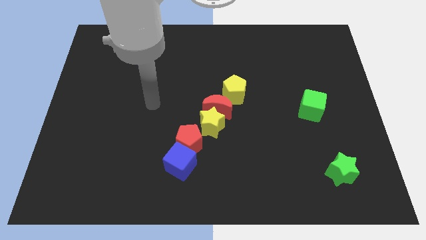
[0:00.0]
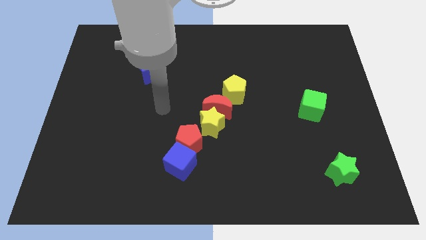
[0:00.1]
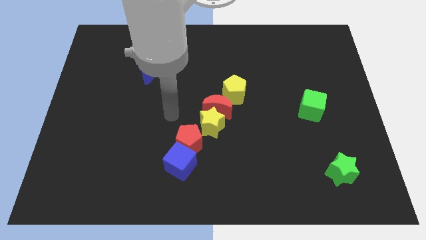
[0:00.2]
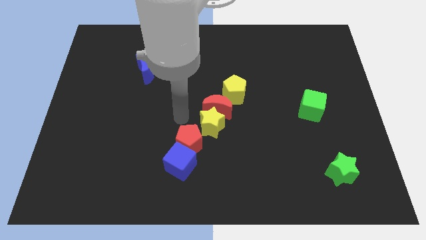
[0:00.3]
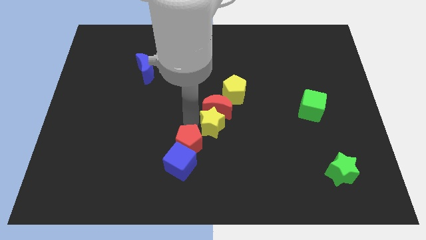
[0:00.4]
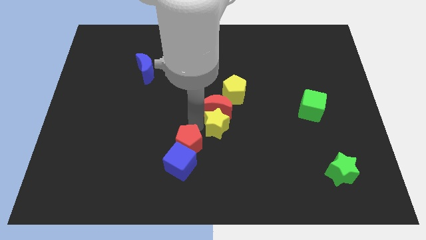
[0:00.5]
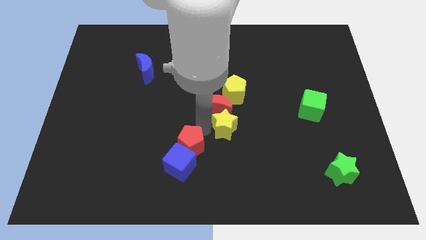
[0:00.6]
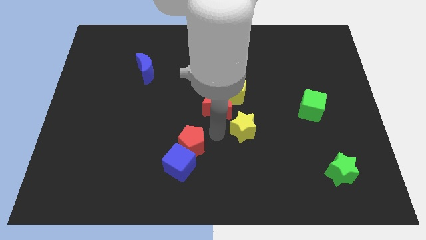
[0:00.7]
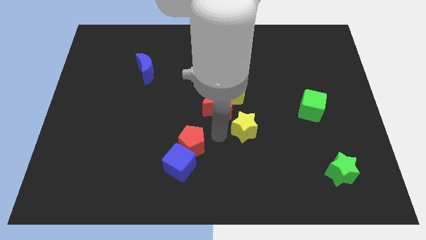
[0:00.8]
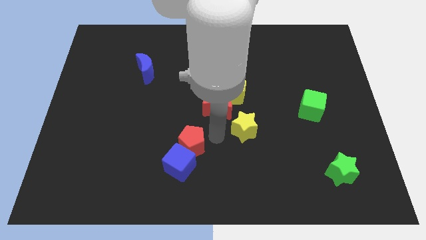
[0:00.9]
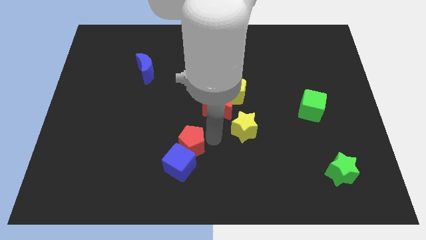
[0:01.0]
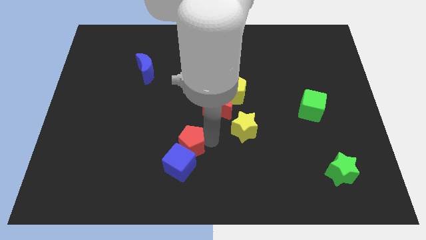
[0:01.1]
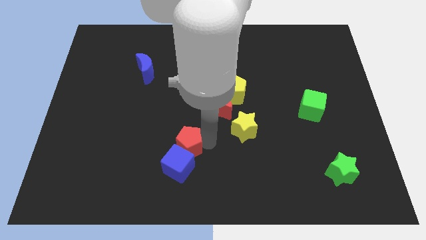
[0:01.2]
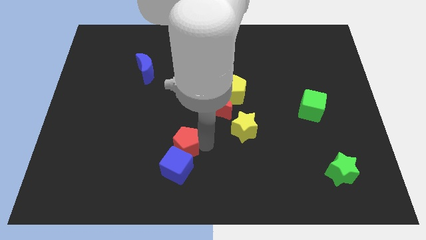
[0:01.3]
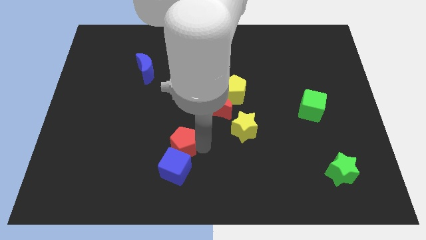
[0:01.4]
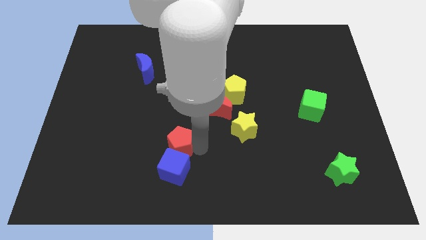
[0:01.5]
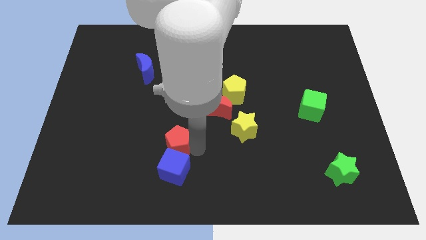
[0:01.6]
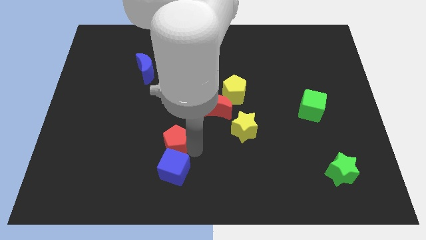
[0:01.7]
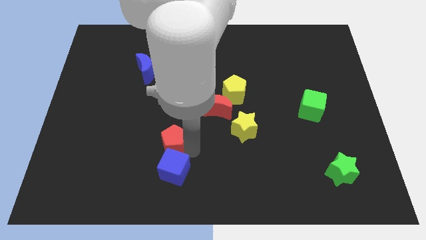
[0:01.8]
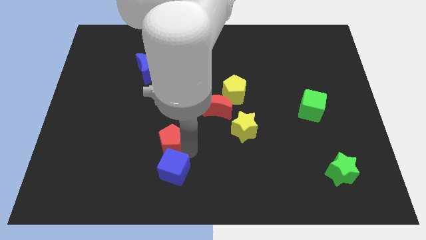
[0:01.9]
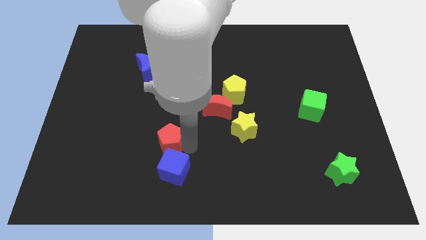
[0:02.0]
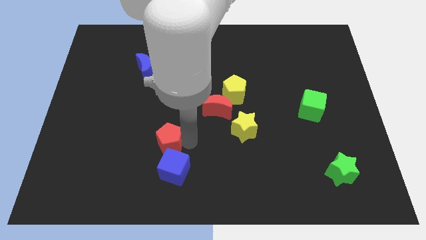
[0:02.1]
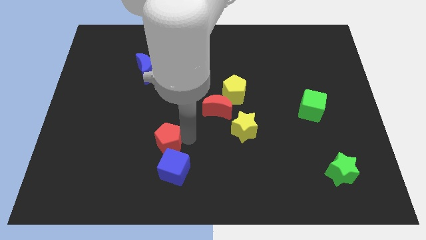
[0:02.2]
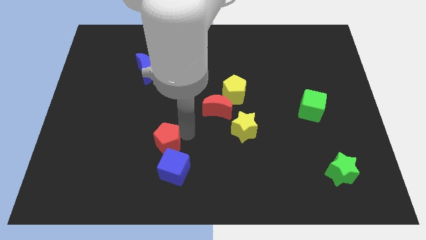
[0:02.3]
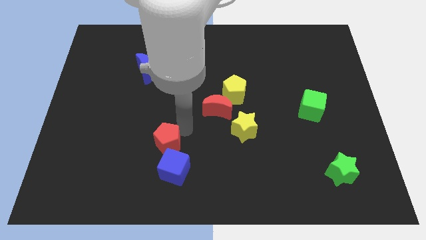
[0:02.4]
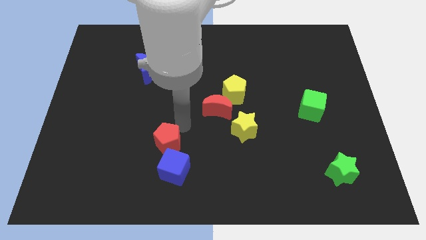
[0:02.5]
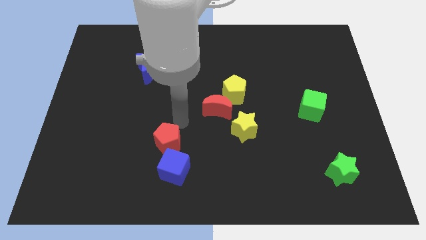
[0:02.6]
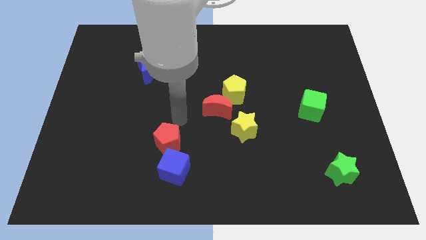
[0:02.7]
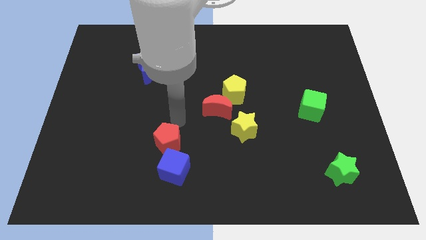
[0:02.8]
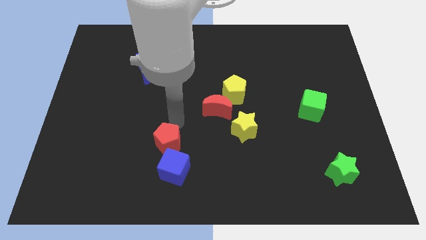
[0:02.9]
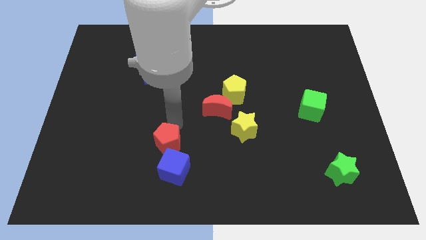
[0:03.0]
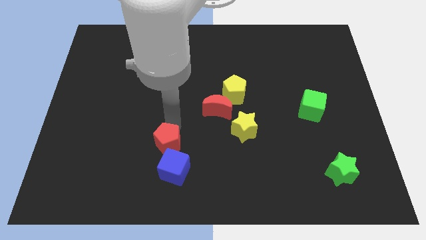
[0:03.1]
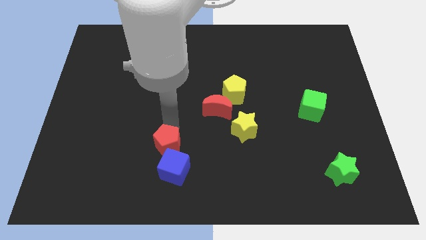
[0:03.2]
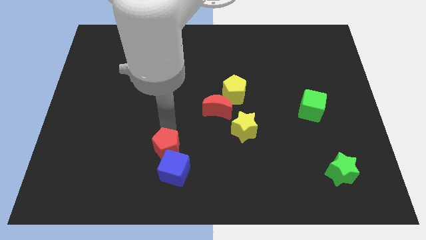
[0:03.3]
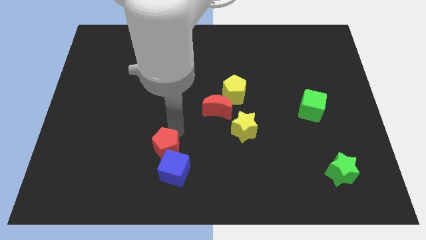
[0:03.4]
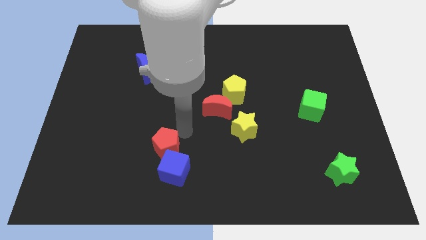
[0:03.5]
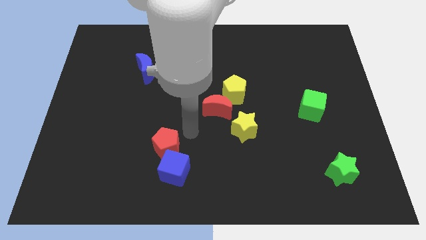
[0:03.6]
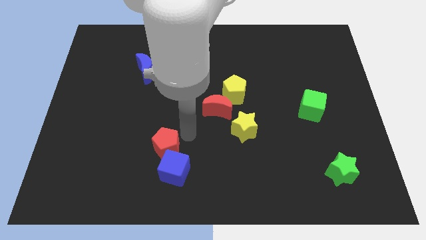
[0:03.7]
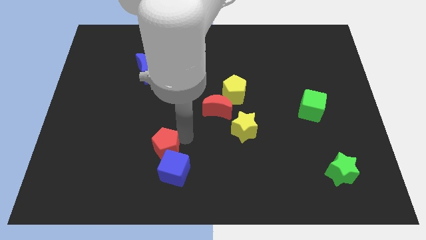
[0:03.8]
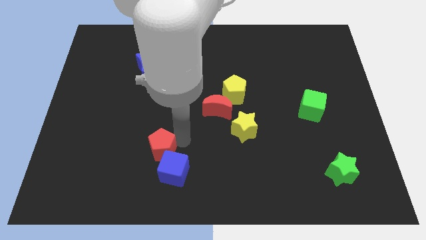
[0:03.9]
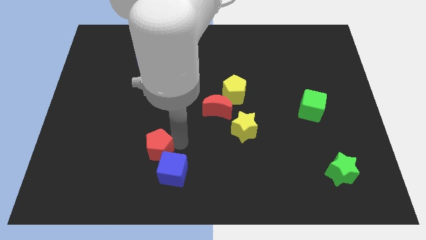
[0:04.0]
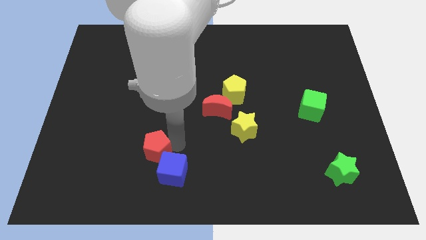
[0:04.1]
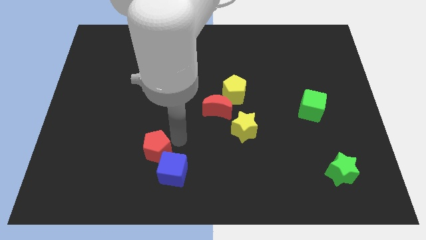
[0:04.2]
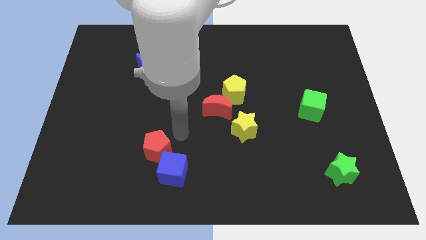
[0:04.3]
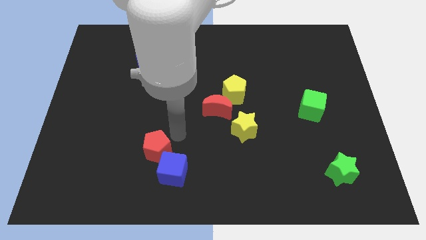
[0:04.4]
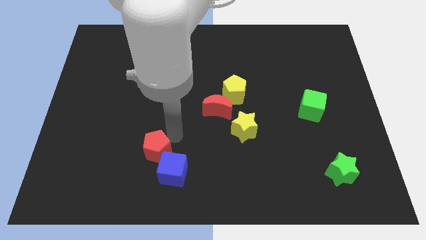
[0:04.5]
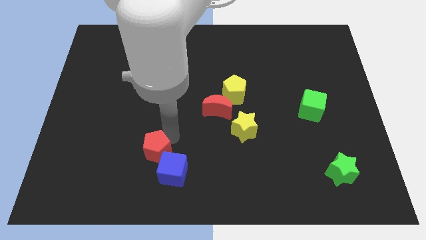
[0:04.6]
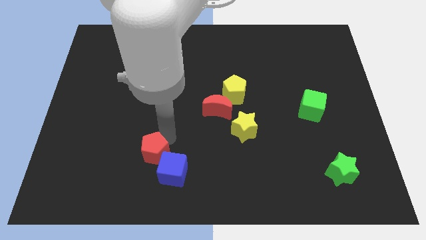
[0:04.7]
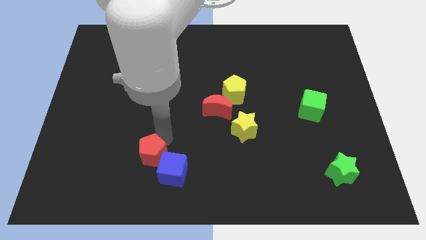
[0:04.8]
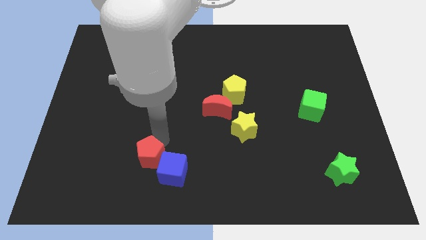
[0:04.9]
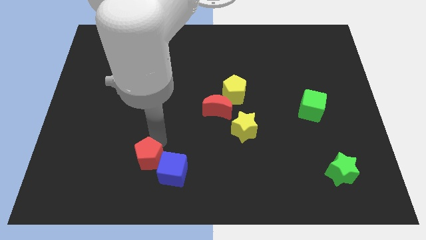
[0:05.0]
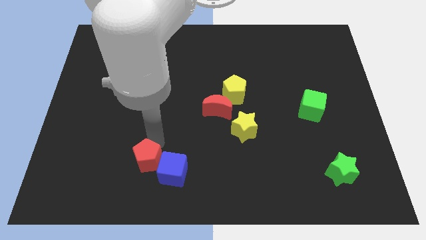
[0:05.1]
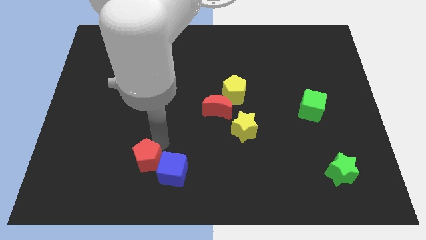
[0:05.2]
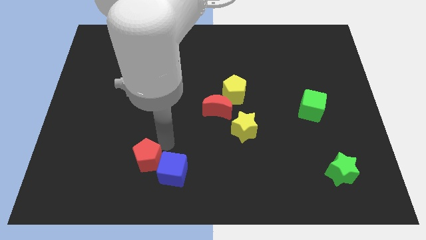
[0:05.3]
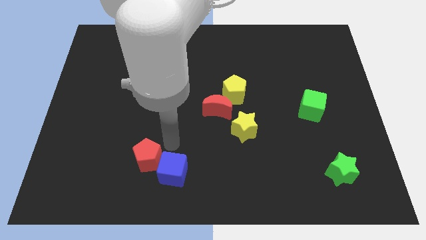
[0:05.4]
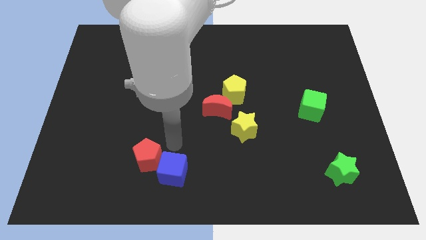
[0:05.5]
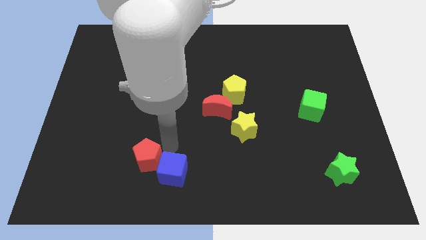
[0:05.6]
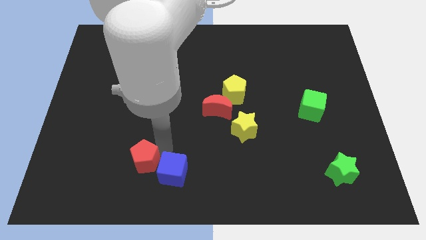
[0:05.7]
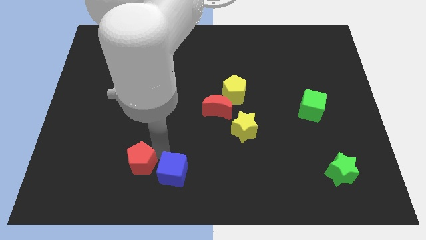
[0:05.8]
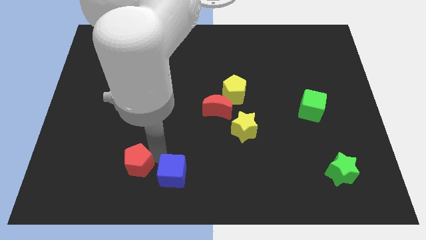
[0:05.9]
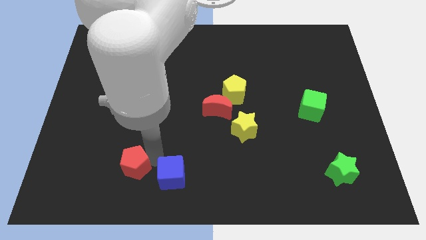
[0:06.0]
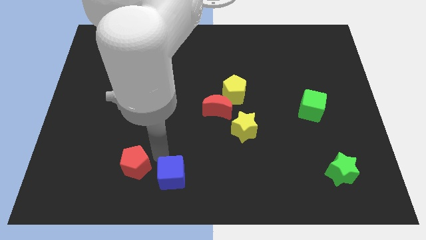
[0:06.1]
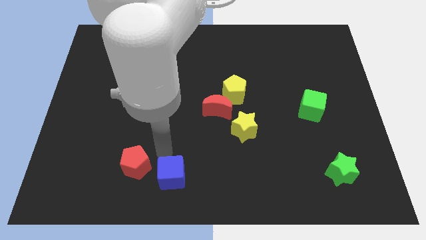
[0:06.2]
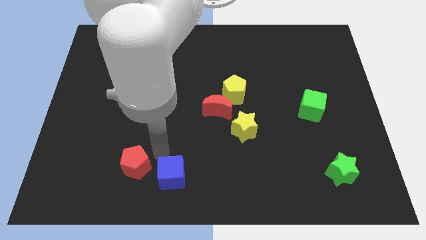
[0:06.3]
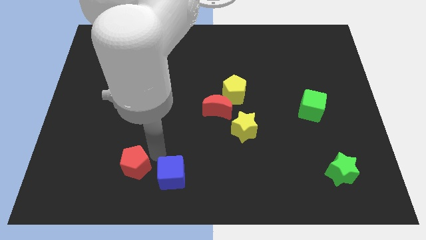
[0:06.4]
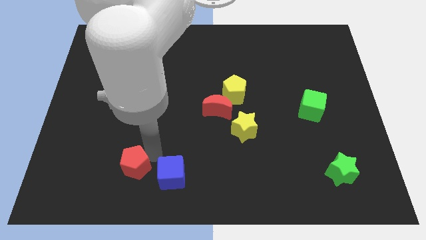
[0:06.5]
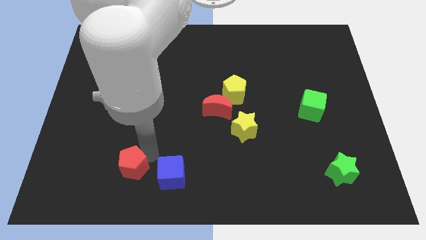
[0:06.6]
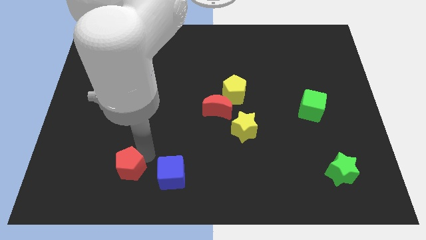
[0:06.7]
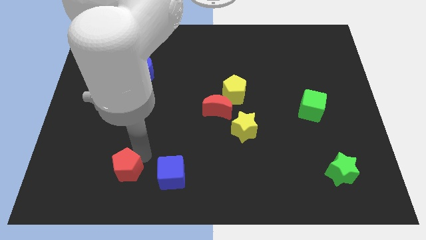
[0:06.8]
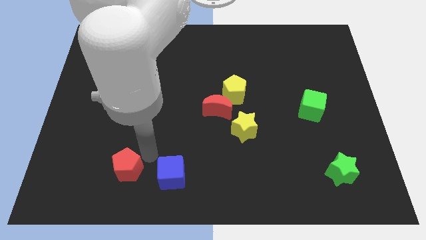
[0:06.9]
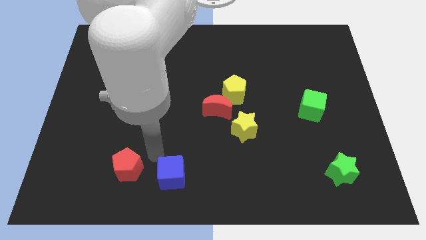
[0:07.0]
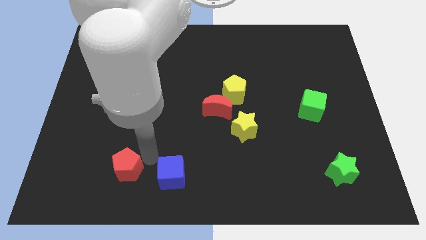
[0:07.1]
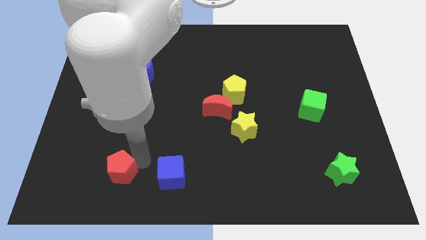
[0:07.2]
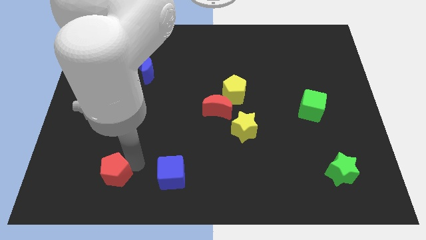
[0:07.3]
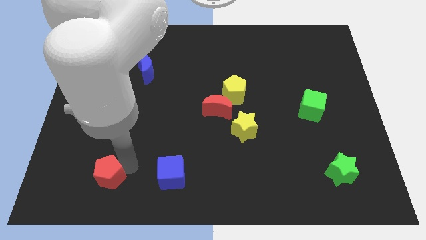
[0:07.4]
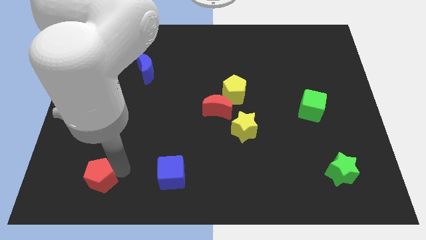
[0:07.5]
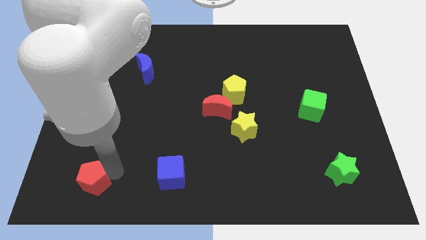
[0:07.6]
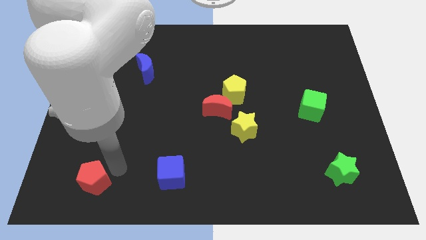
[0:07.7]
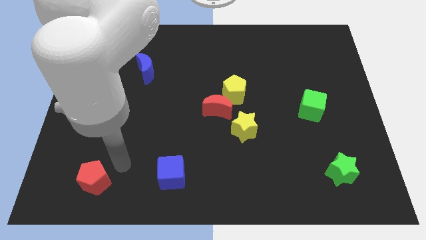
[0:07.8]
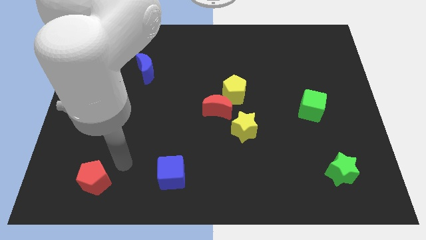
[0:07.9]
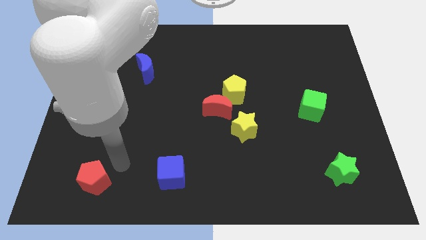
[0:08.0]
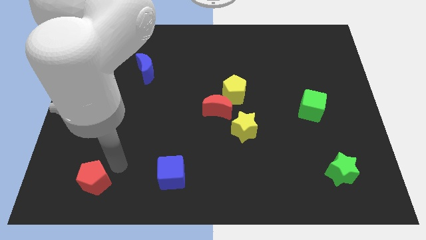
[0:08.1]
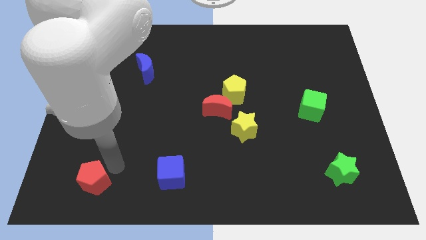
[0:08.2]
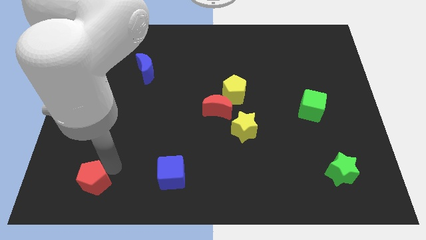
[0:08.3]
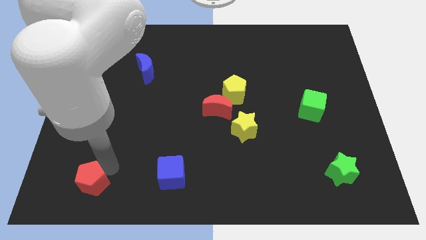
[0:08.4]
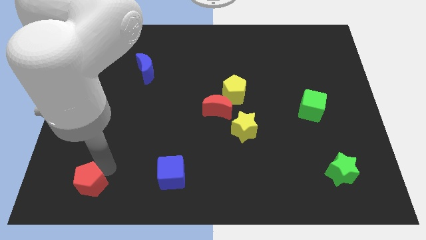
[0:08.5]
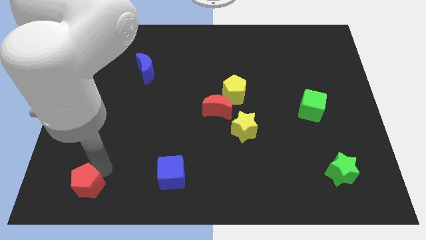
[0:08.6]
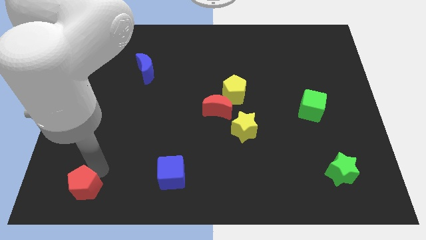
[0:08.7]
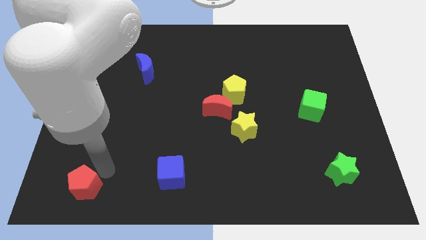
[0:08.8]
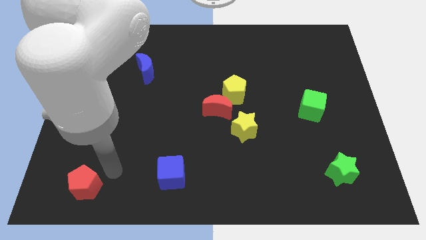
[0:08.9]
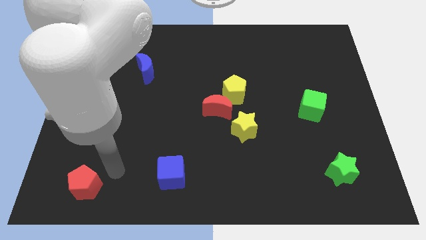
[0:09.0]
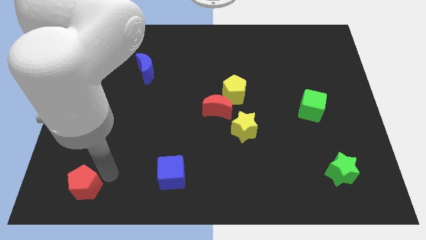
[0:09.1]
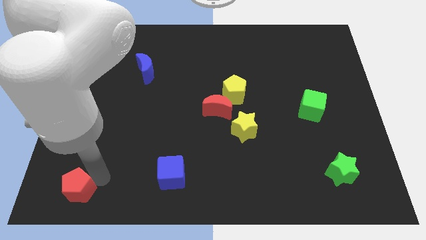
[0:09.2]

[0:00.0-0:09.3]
push the red pentagon to the lower left corner
